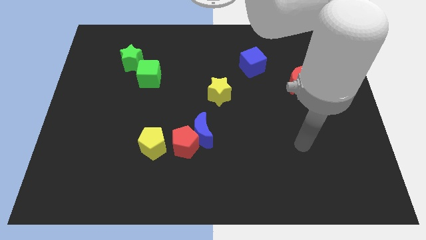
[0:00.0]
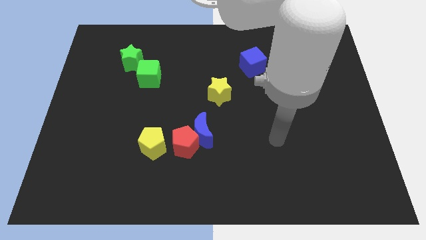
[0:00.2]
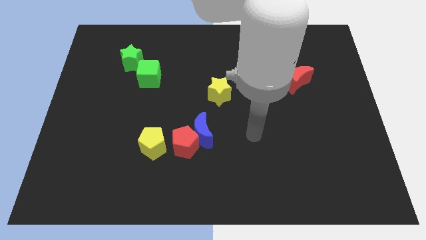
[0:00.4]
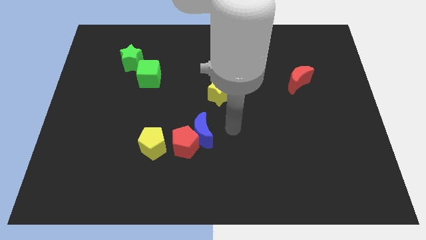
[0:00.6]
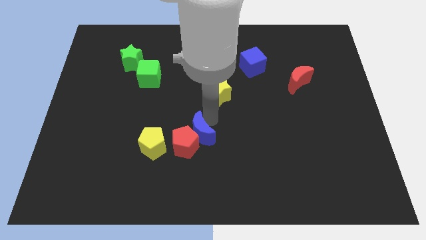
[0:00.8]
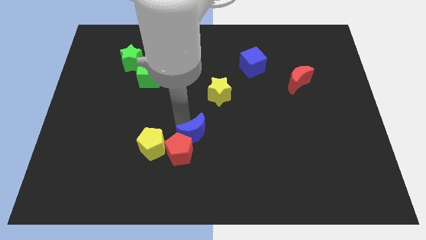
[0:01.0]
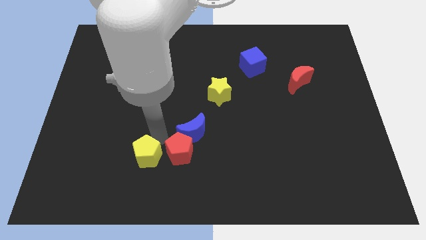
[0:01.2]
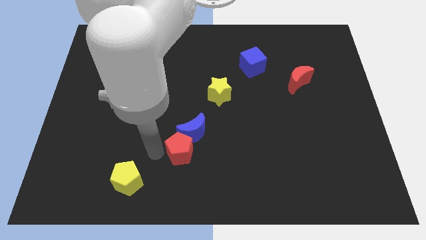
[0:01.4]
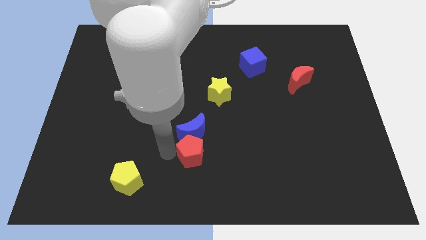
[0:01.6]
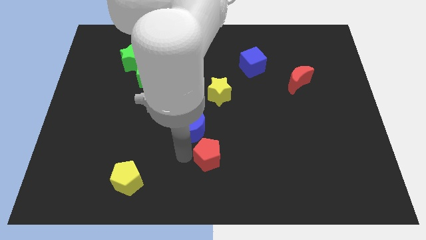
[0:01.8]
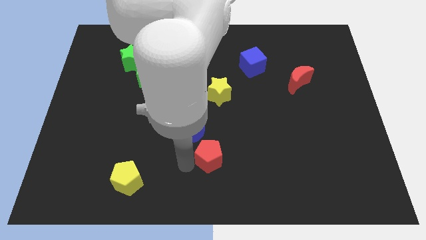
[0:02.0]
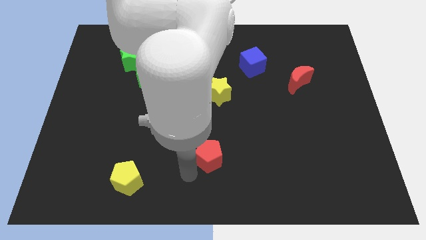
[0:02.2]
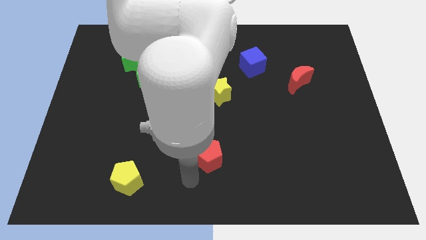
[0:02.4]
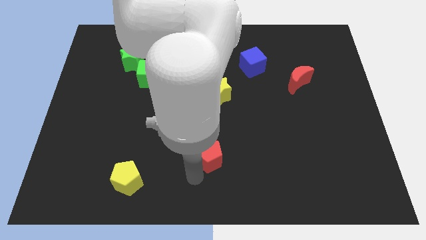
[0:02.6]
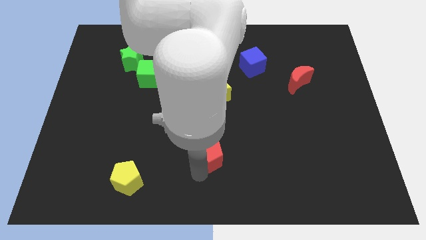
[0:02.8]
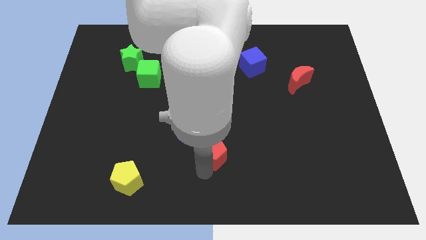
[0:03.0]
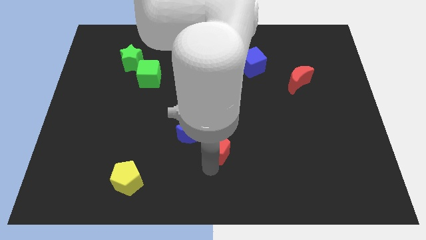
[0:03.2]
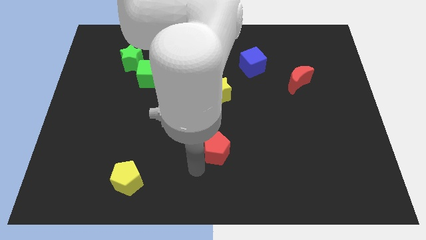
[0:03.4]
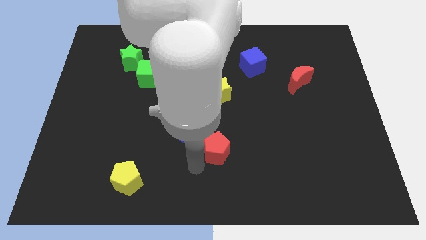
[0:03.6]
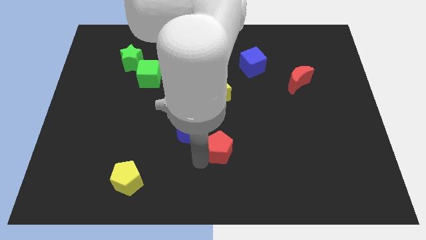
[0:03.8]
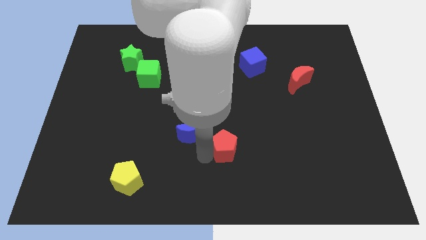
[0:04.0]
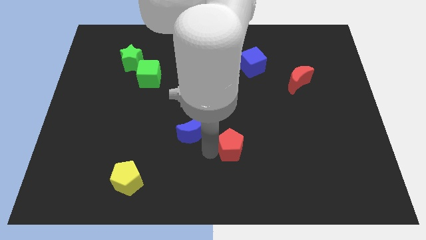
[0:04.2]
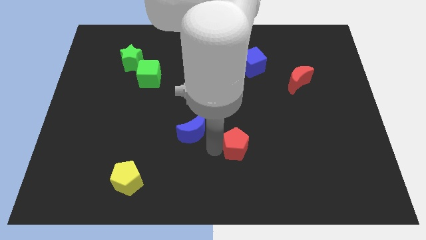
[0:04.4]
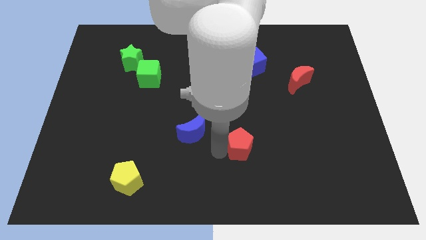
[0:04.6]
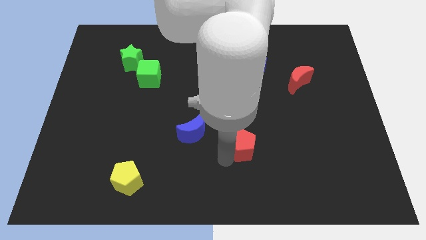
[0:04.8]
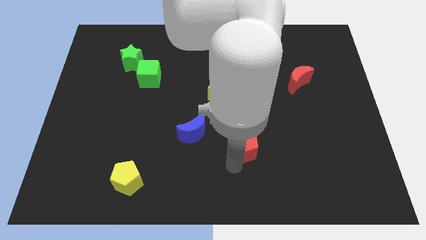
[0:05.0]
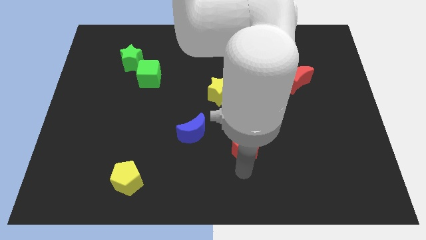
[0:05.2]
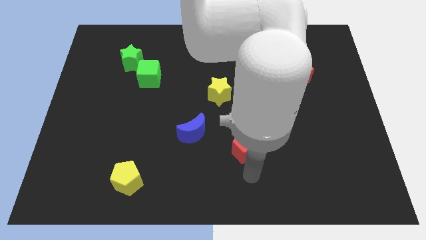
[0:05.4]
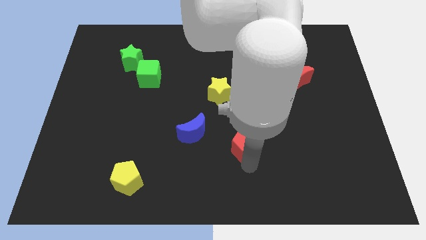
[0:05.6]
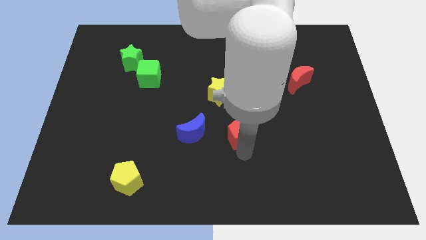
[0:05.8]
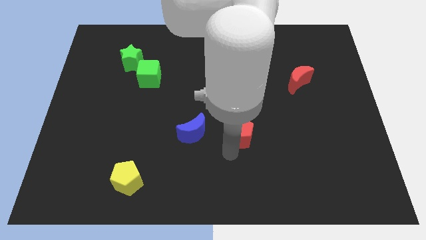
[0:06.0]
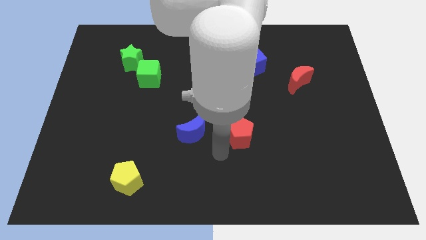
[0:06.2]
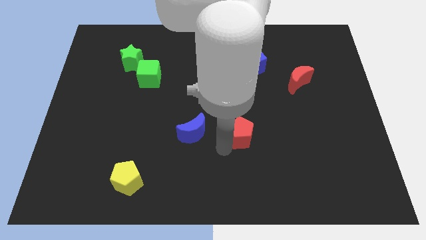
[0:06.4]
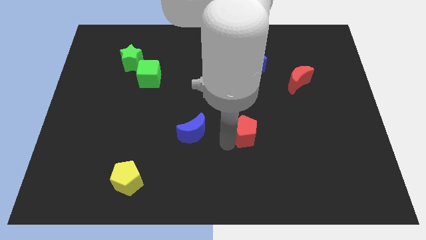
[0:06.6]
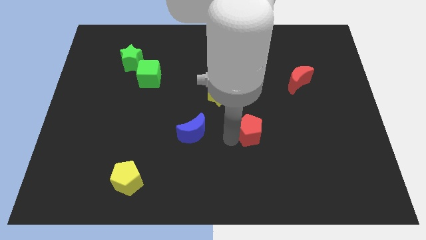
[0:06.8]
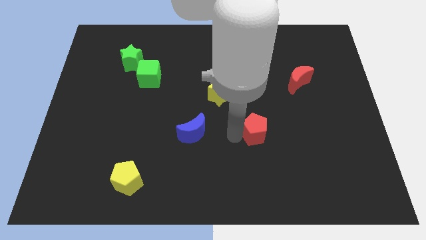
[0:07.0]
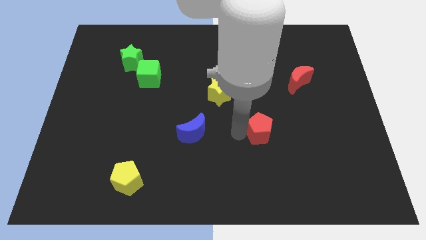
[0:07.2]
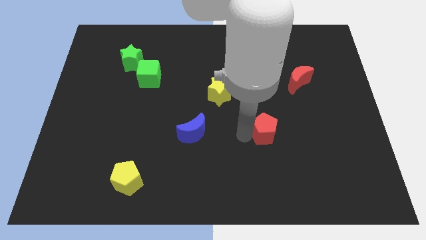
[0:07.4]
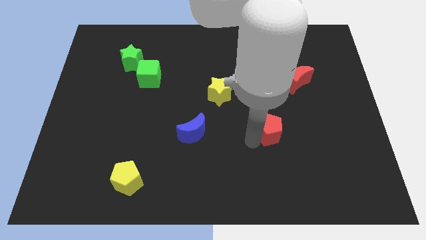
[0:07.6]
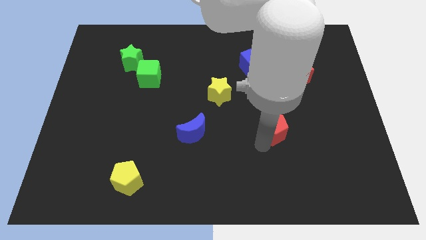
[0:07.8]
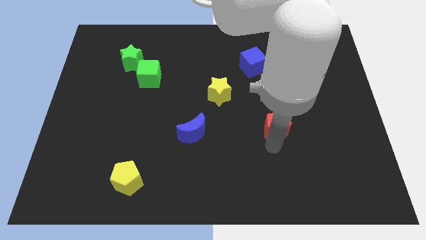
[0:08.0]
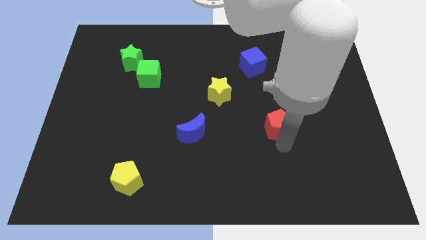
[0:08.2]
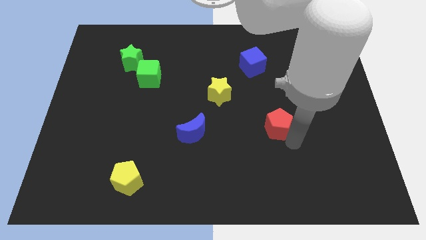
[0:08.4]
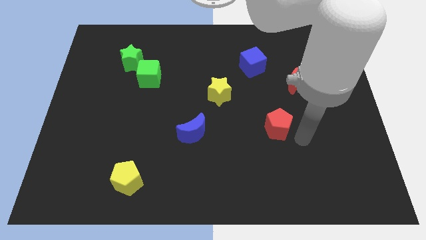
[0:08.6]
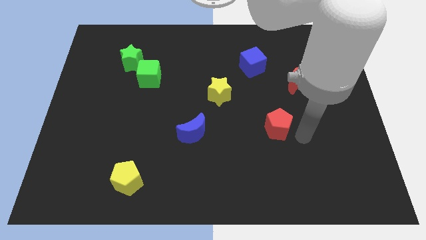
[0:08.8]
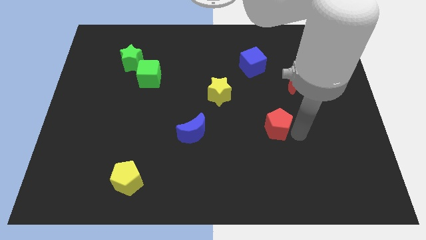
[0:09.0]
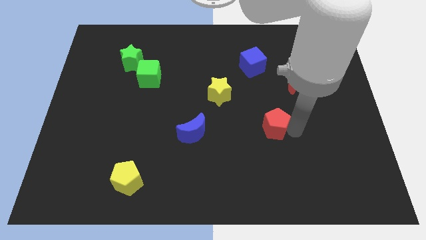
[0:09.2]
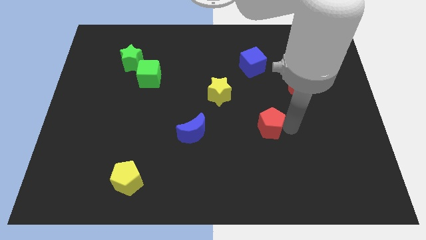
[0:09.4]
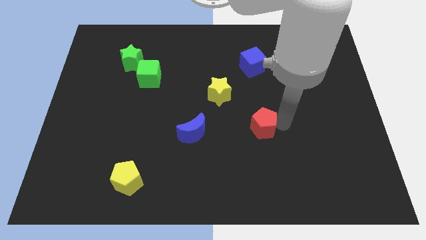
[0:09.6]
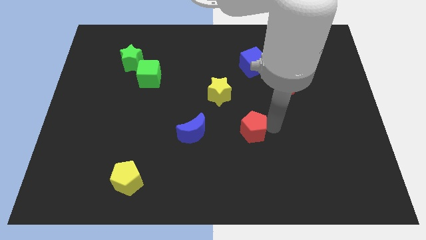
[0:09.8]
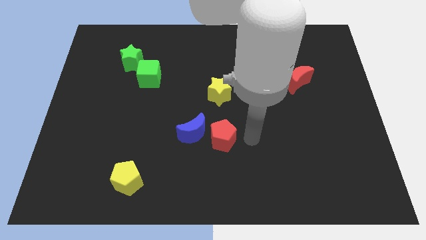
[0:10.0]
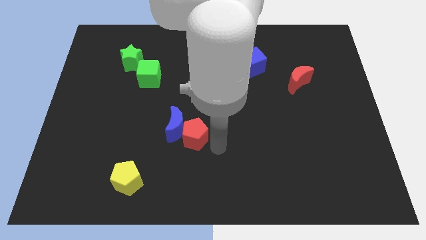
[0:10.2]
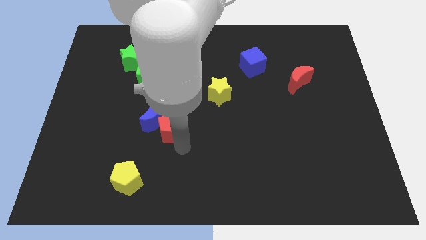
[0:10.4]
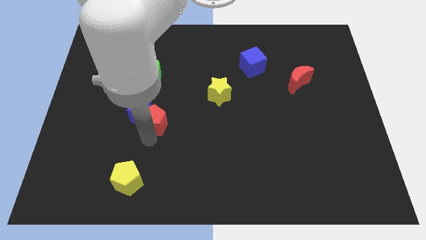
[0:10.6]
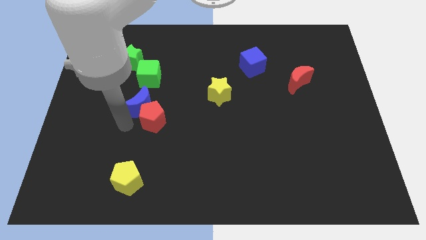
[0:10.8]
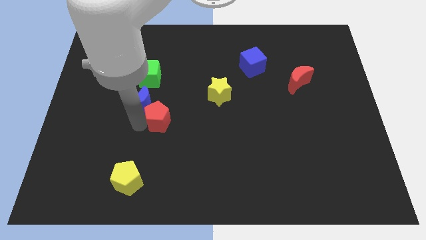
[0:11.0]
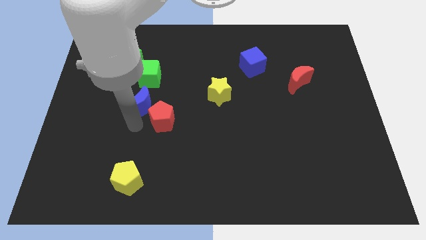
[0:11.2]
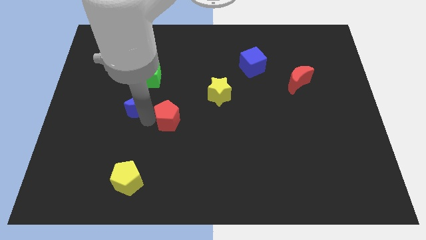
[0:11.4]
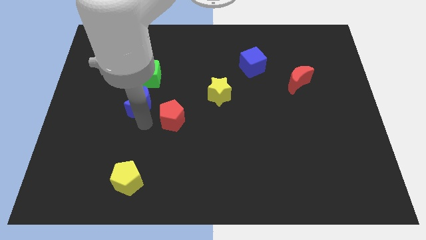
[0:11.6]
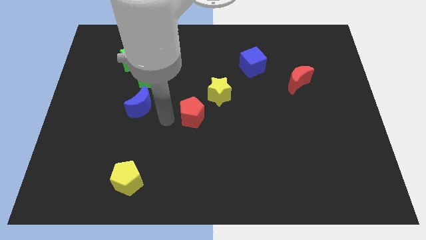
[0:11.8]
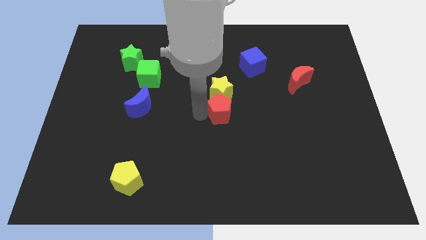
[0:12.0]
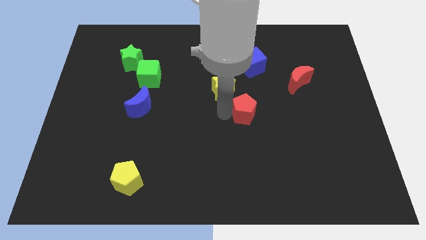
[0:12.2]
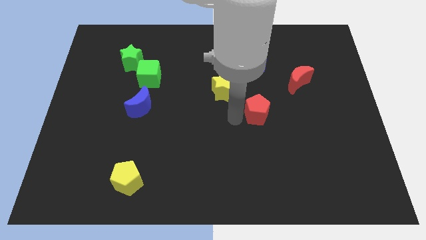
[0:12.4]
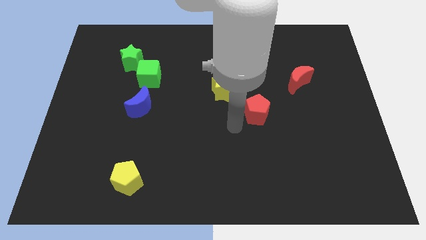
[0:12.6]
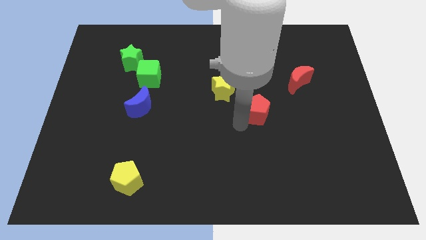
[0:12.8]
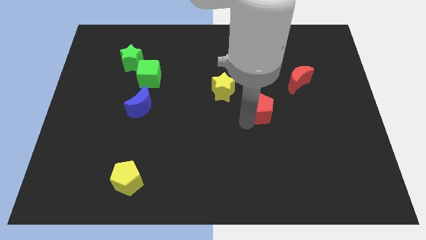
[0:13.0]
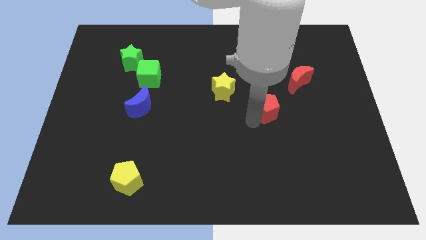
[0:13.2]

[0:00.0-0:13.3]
push the red pentagon to the bottom left of the red moon

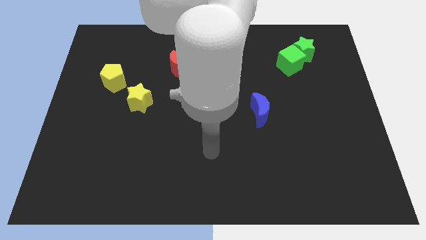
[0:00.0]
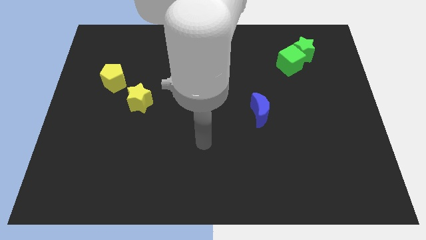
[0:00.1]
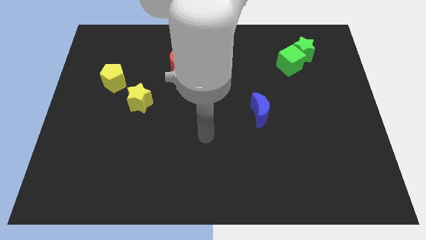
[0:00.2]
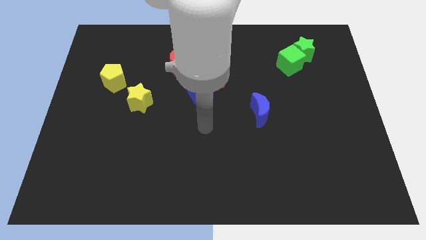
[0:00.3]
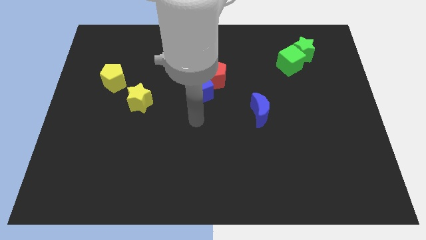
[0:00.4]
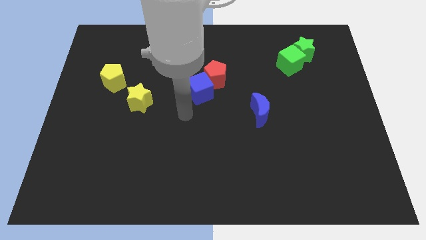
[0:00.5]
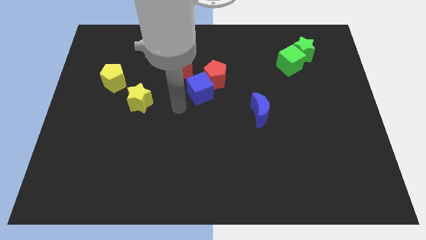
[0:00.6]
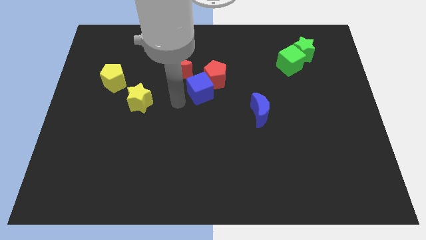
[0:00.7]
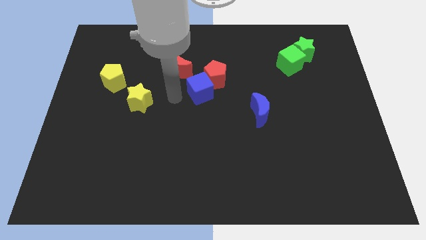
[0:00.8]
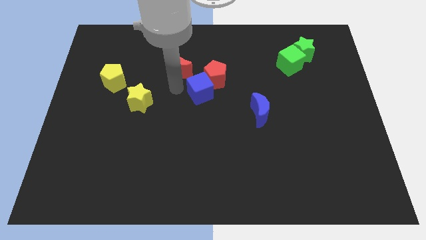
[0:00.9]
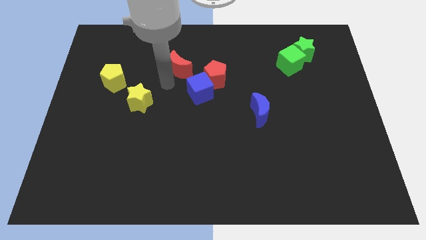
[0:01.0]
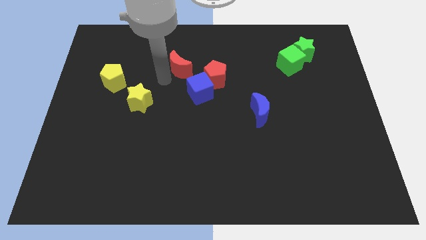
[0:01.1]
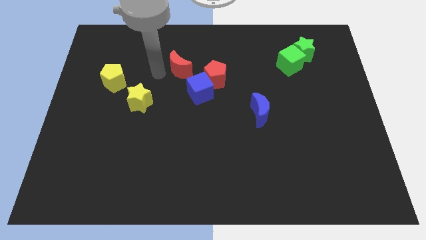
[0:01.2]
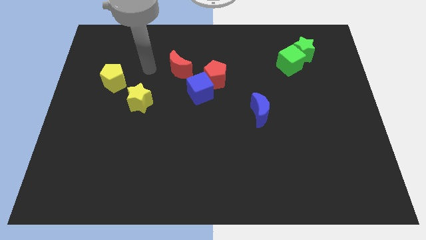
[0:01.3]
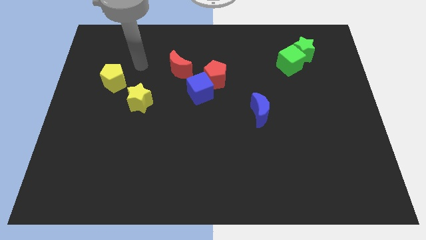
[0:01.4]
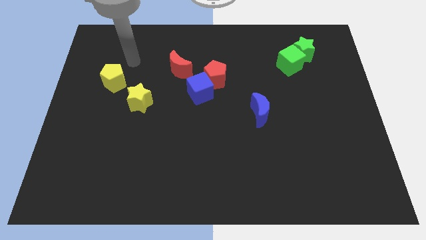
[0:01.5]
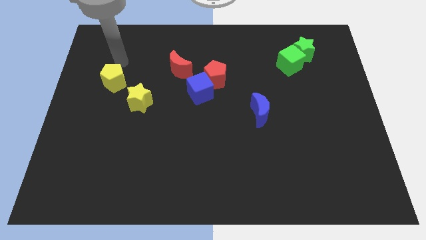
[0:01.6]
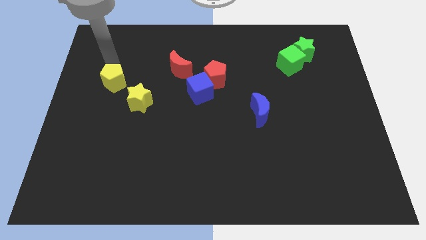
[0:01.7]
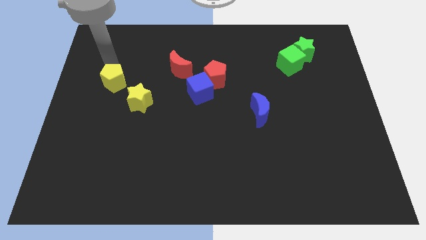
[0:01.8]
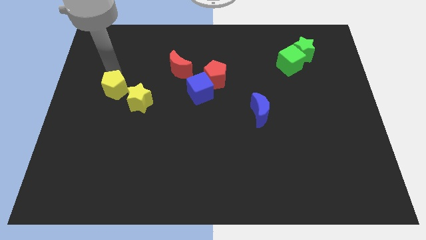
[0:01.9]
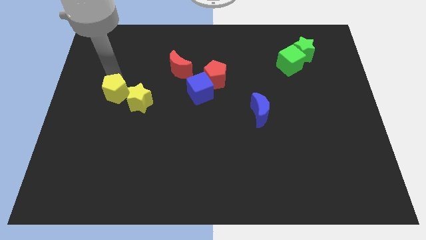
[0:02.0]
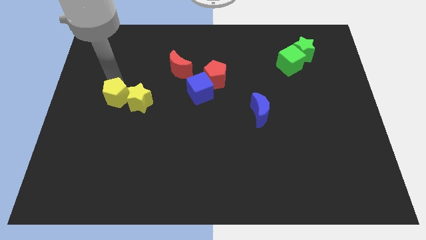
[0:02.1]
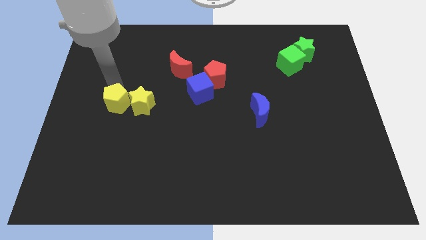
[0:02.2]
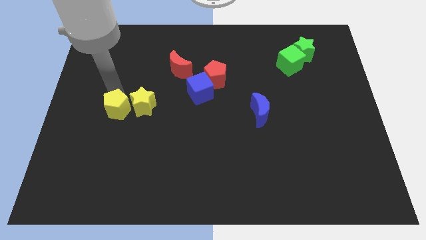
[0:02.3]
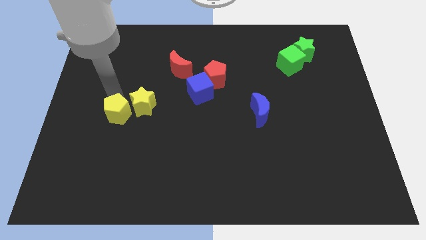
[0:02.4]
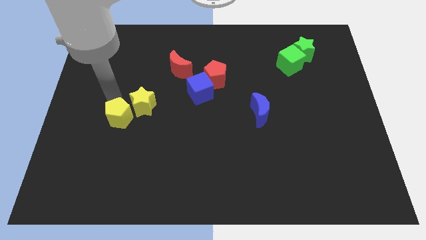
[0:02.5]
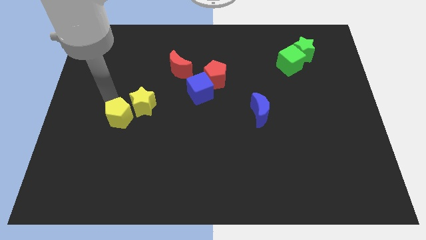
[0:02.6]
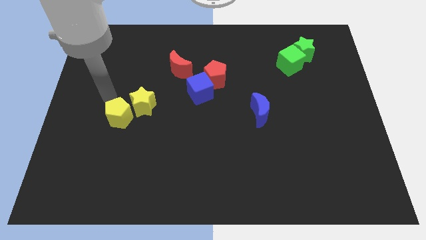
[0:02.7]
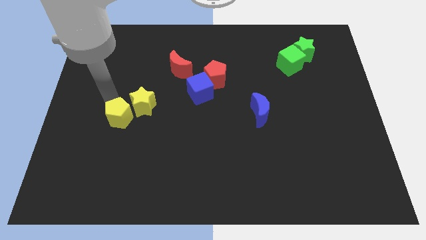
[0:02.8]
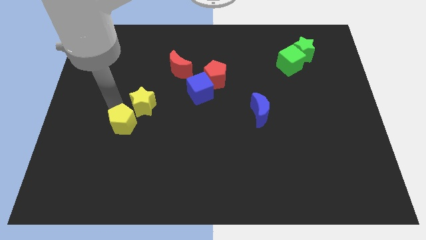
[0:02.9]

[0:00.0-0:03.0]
slide the yellow pentagon to the bottom side of the yellow star
